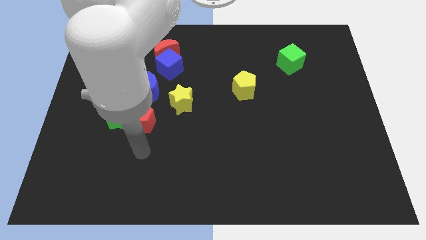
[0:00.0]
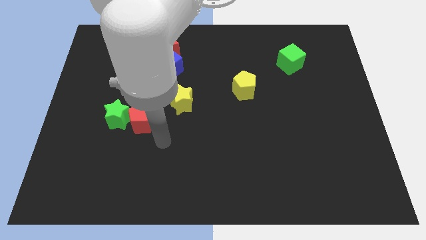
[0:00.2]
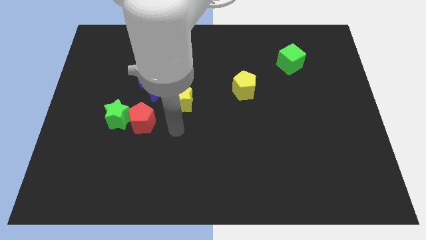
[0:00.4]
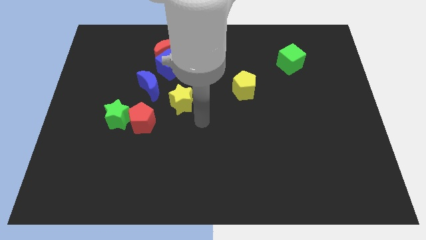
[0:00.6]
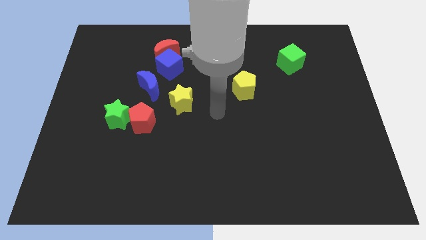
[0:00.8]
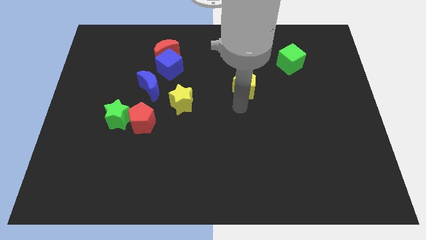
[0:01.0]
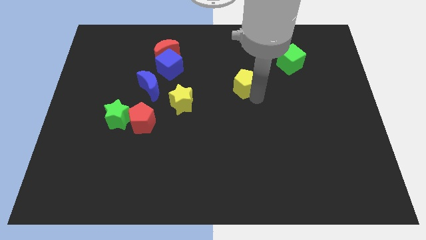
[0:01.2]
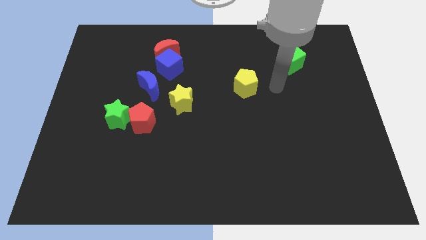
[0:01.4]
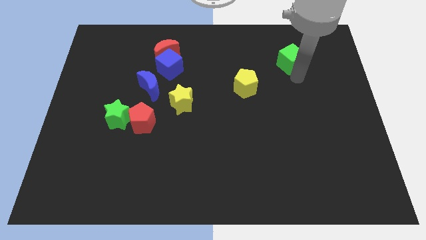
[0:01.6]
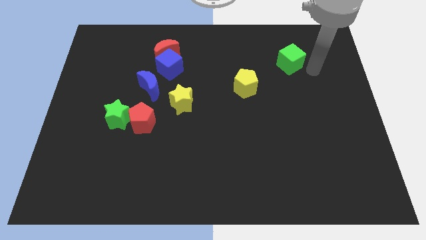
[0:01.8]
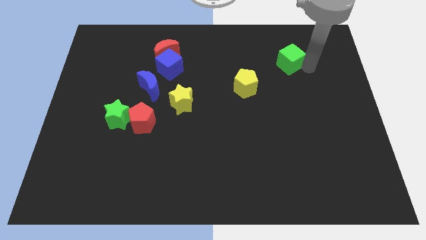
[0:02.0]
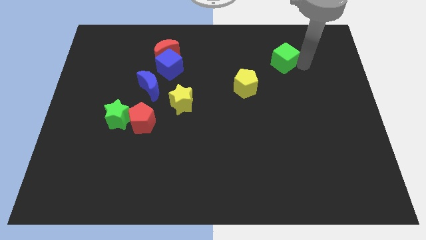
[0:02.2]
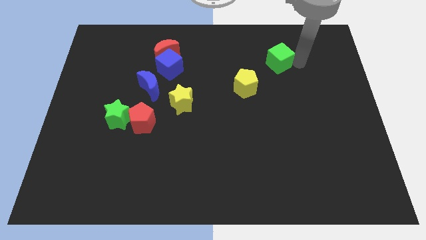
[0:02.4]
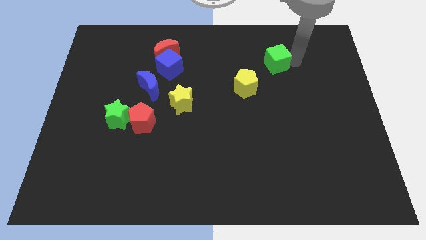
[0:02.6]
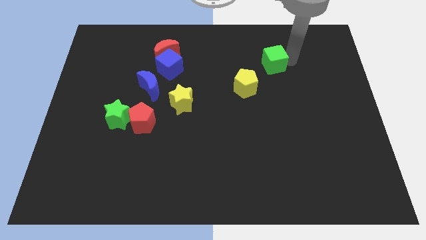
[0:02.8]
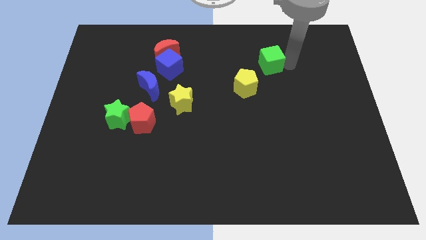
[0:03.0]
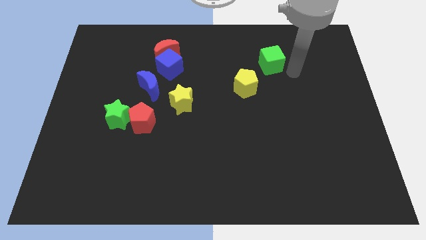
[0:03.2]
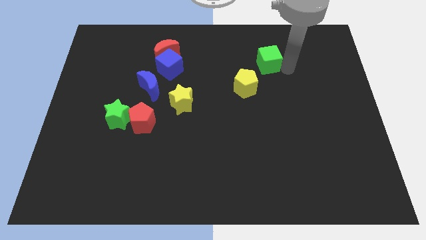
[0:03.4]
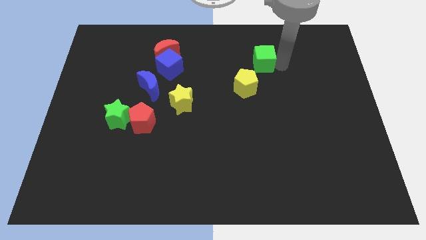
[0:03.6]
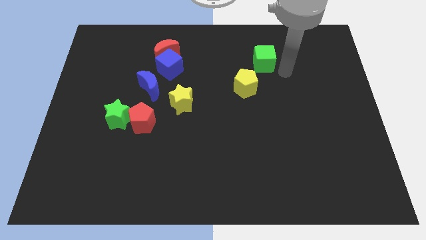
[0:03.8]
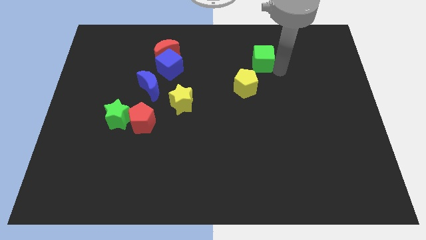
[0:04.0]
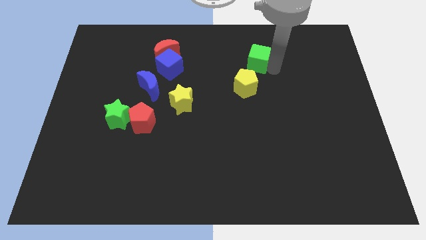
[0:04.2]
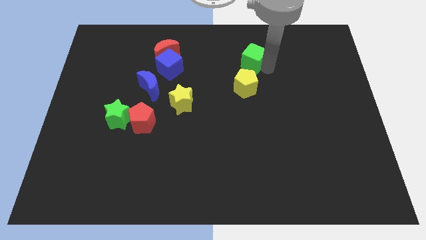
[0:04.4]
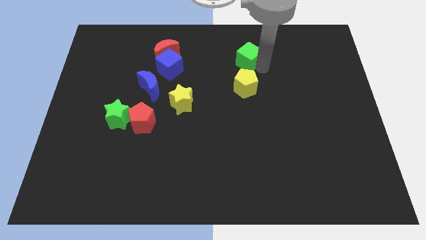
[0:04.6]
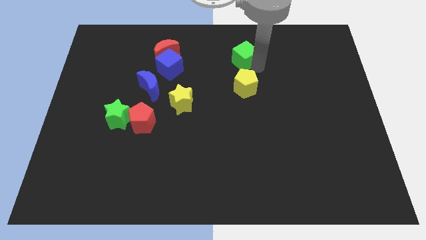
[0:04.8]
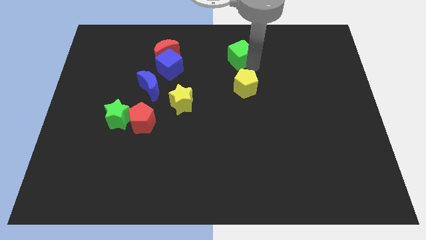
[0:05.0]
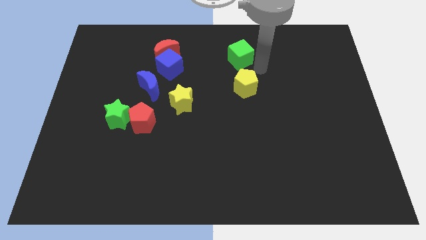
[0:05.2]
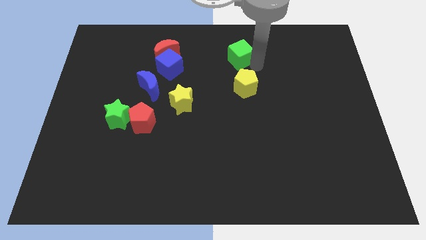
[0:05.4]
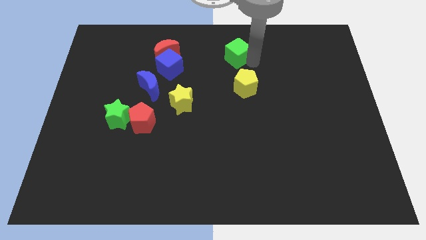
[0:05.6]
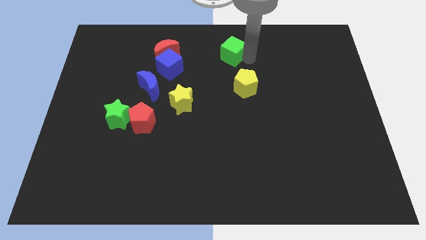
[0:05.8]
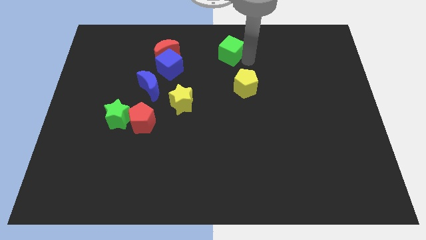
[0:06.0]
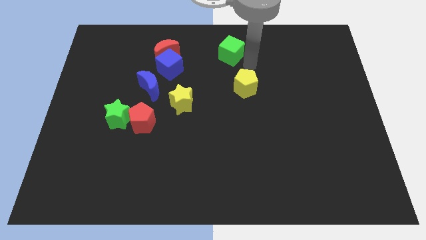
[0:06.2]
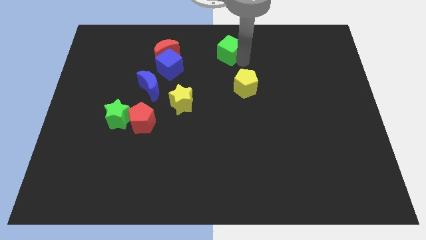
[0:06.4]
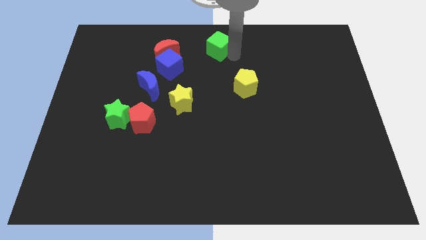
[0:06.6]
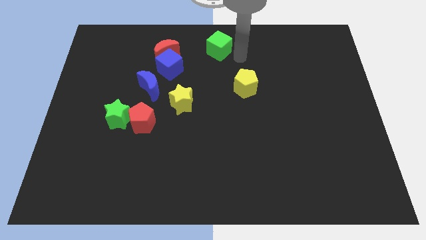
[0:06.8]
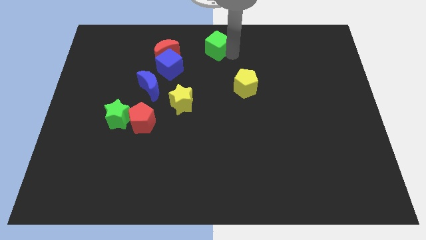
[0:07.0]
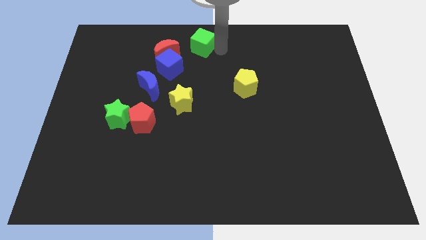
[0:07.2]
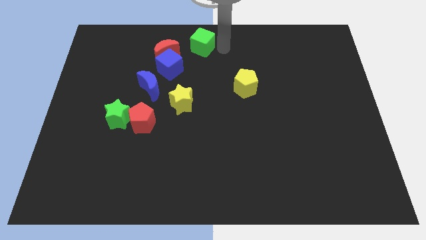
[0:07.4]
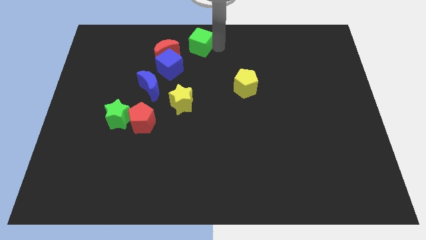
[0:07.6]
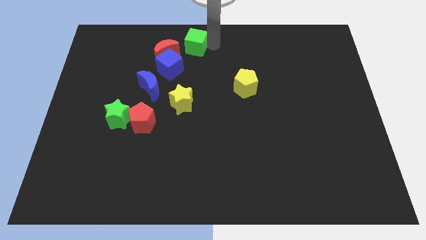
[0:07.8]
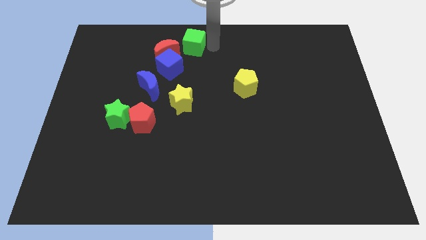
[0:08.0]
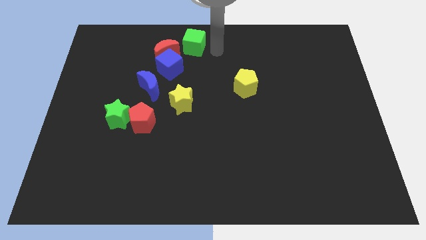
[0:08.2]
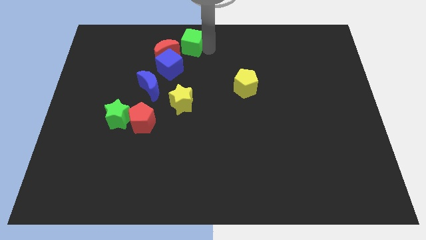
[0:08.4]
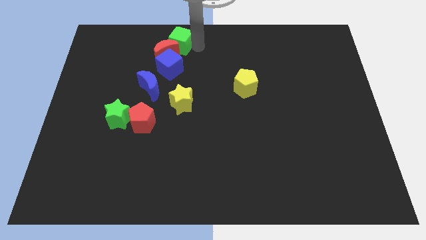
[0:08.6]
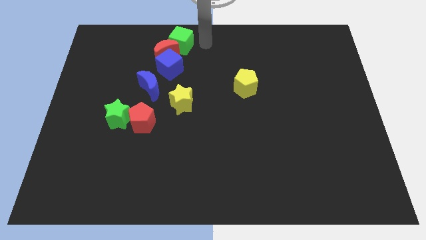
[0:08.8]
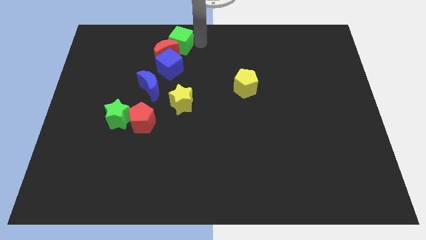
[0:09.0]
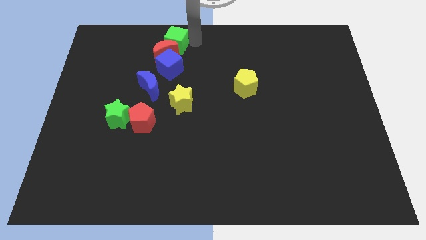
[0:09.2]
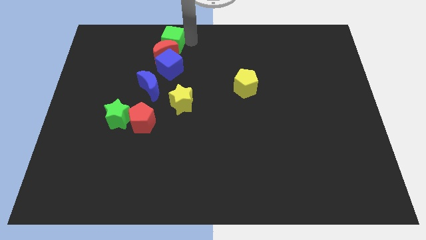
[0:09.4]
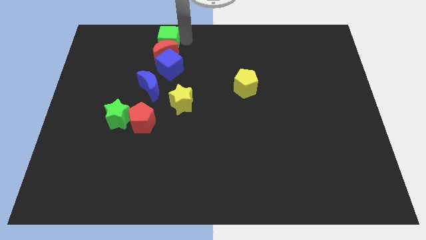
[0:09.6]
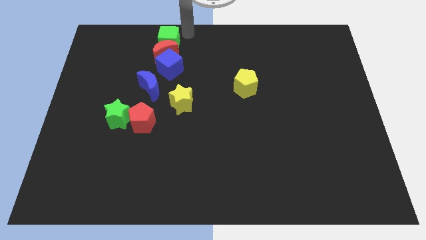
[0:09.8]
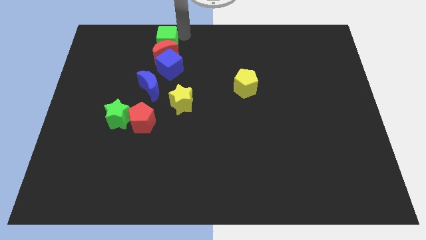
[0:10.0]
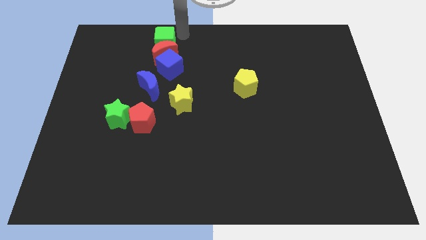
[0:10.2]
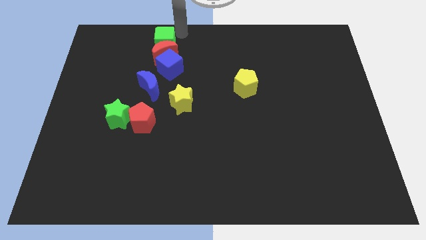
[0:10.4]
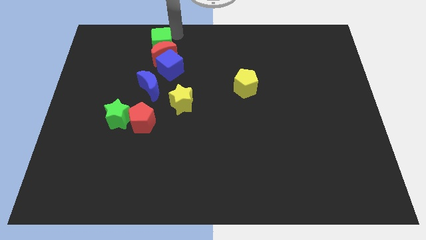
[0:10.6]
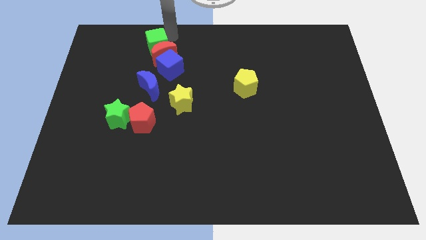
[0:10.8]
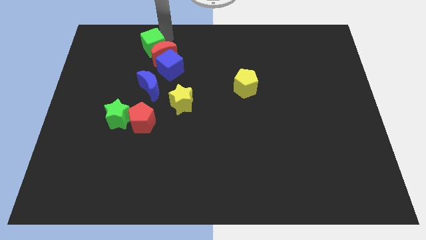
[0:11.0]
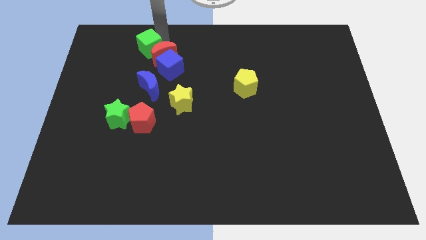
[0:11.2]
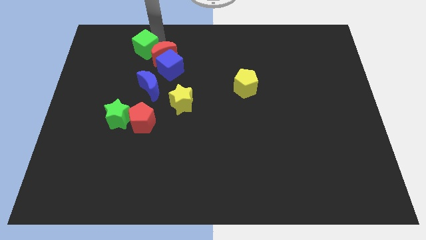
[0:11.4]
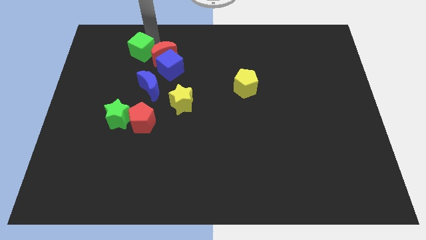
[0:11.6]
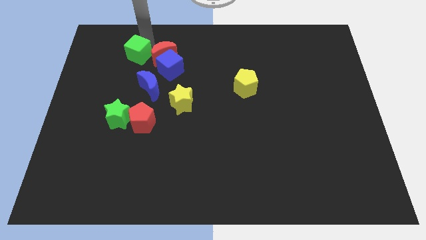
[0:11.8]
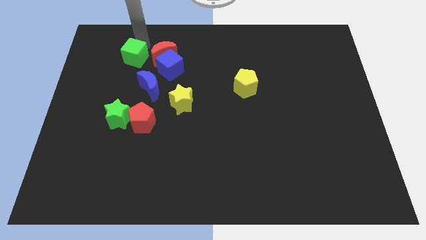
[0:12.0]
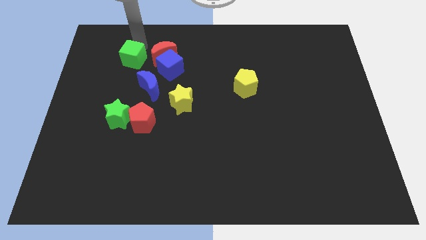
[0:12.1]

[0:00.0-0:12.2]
put the green cube to the bottom left of the red moon
